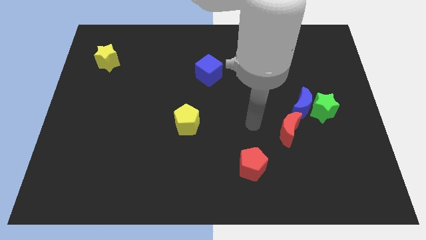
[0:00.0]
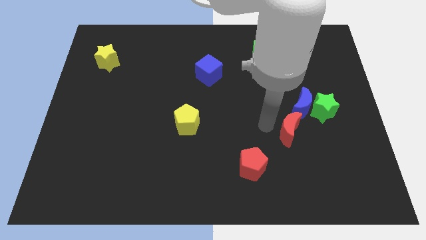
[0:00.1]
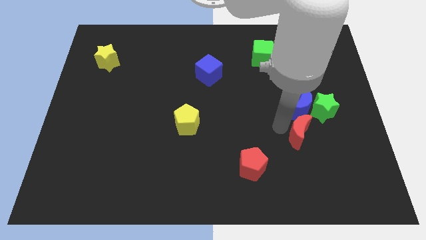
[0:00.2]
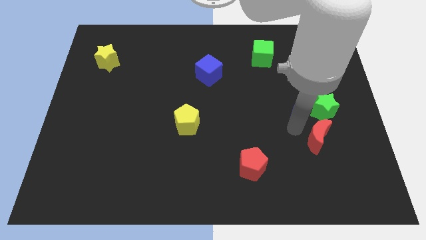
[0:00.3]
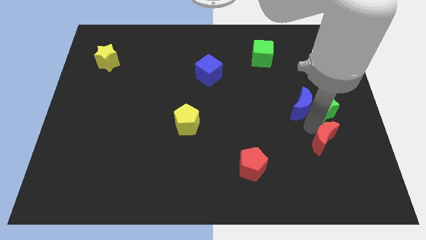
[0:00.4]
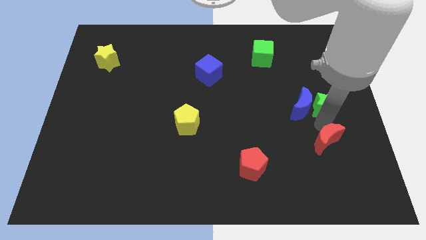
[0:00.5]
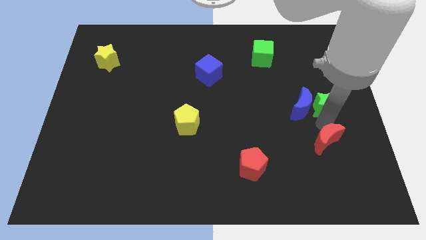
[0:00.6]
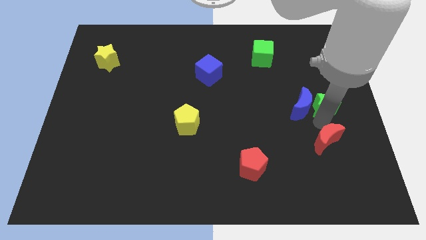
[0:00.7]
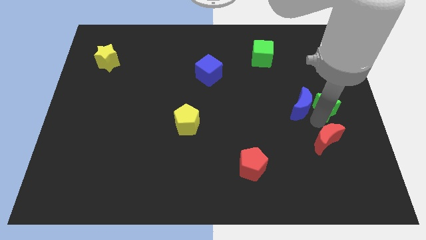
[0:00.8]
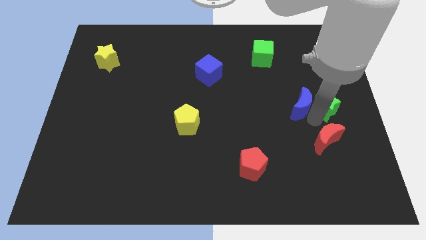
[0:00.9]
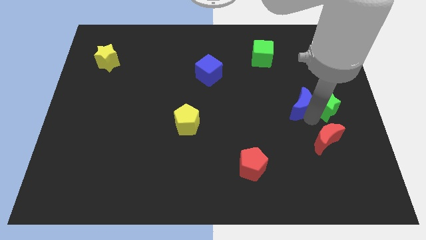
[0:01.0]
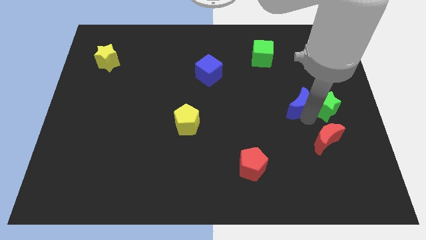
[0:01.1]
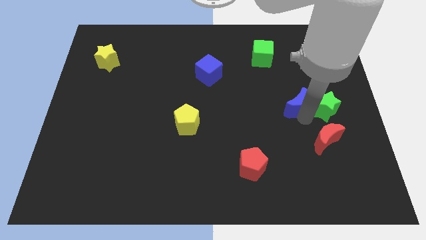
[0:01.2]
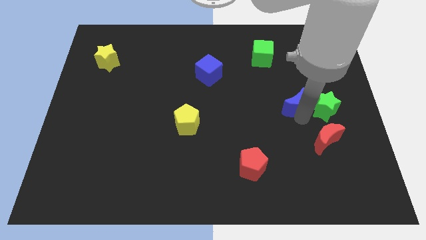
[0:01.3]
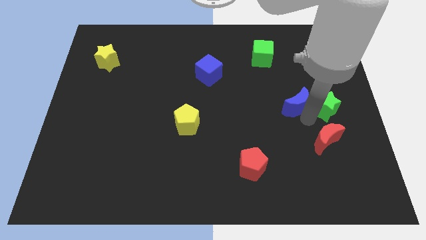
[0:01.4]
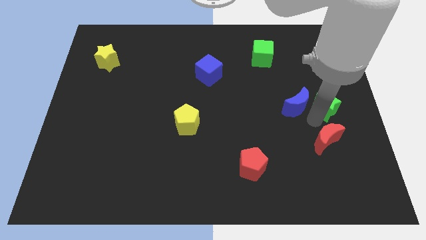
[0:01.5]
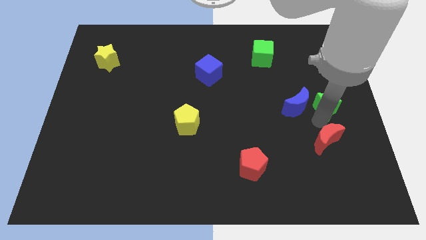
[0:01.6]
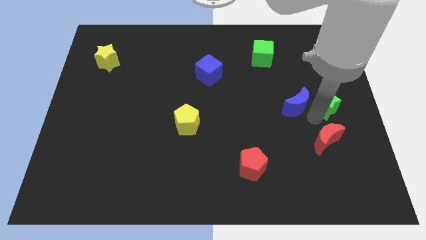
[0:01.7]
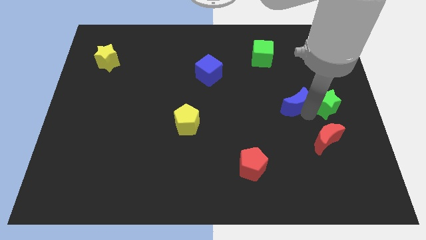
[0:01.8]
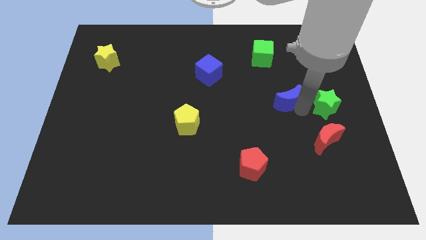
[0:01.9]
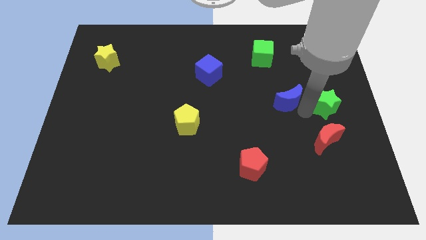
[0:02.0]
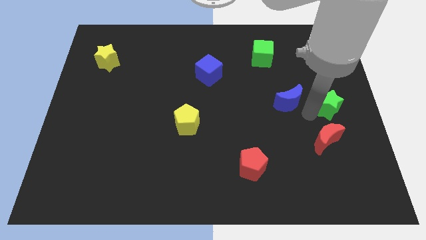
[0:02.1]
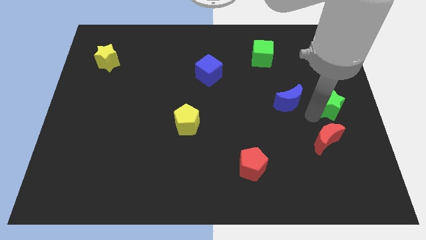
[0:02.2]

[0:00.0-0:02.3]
pull the blue moon apart from the green star and red moon

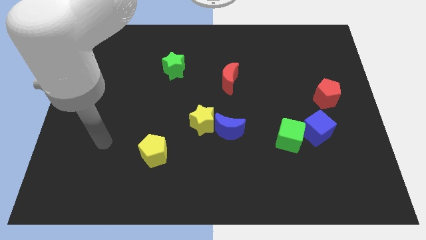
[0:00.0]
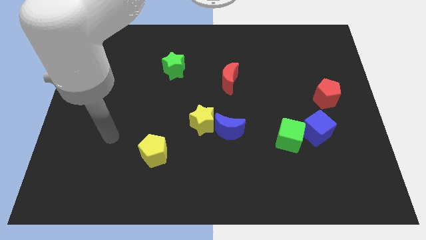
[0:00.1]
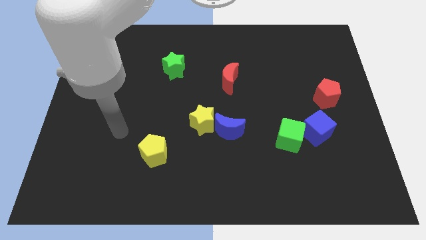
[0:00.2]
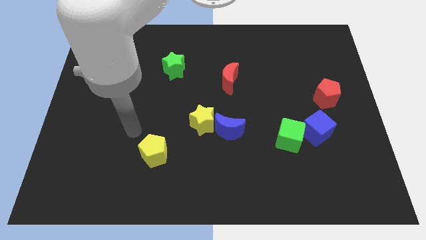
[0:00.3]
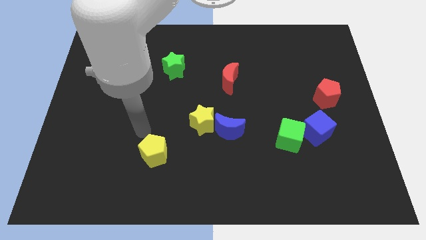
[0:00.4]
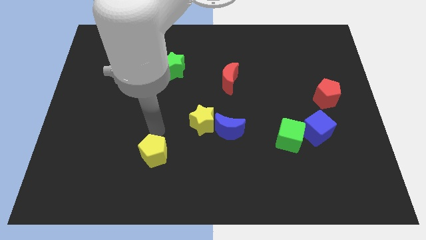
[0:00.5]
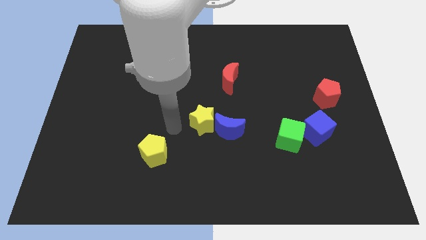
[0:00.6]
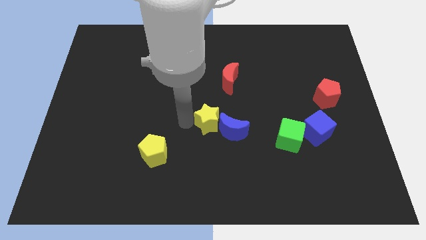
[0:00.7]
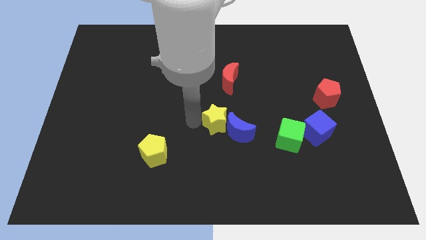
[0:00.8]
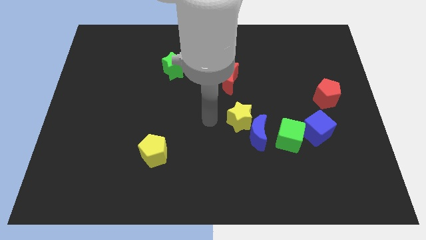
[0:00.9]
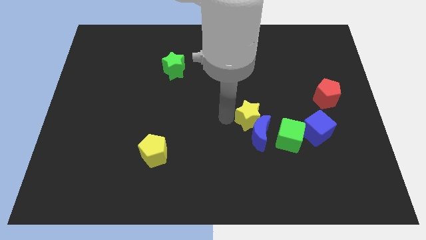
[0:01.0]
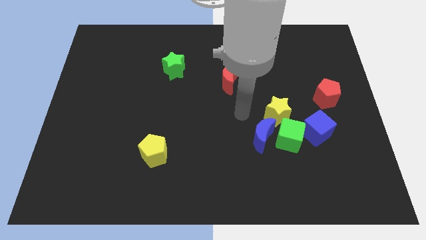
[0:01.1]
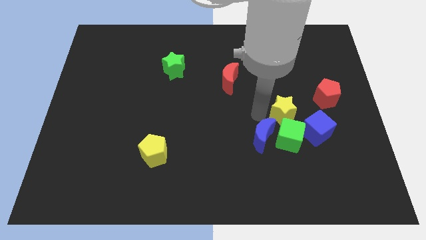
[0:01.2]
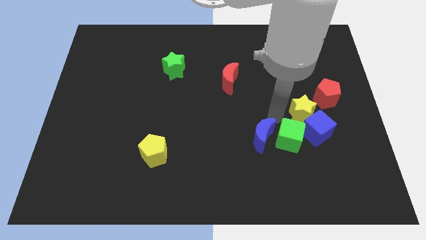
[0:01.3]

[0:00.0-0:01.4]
move the blue moon away from the yellow star

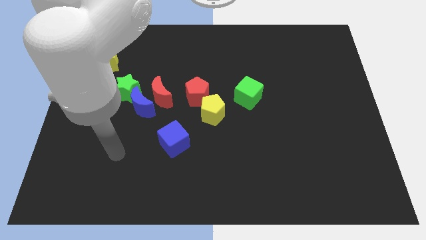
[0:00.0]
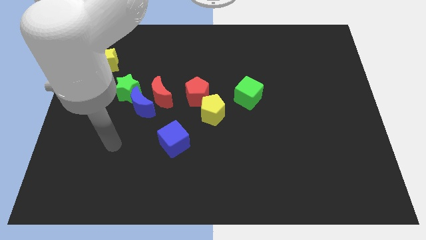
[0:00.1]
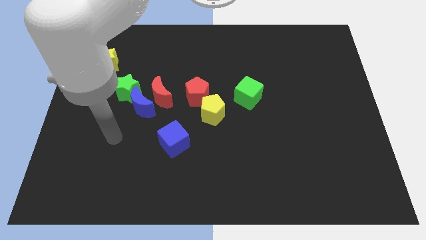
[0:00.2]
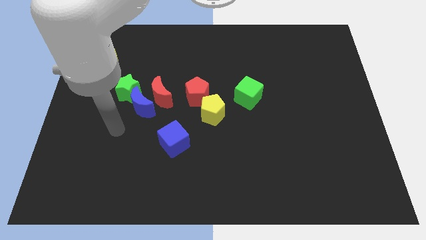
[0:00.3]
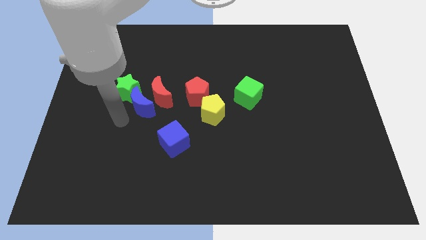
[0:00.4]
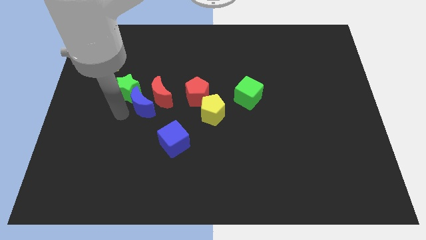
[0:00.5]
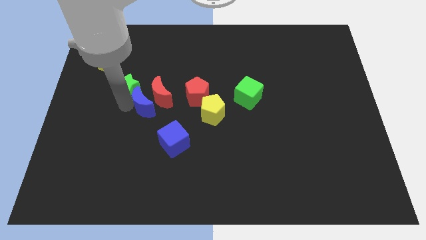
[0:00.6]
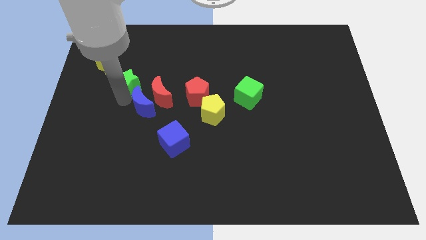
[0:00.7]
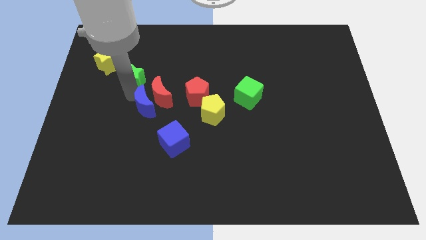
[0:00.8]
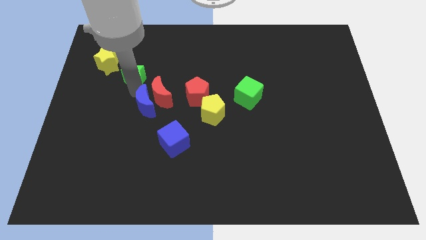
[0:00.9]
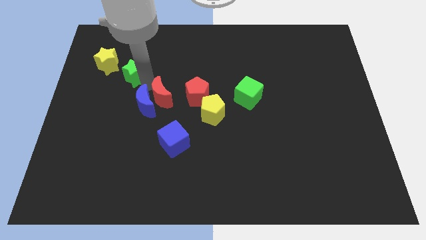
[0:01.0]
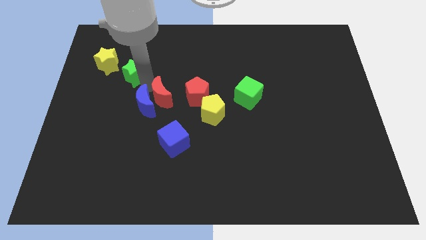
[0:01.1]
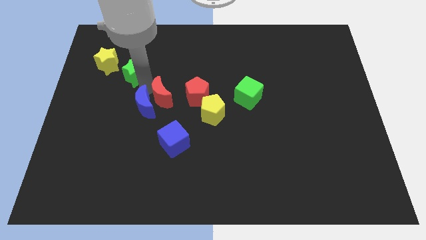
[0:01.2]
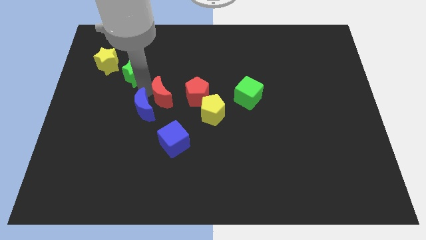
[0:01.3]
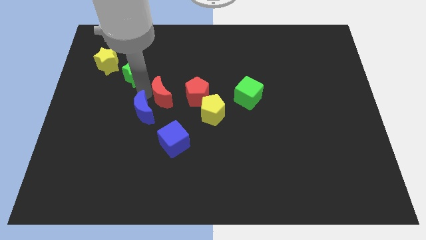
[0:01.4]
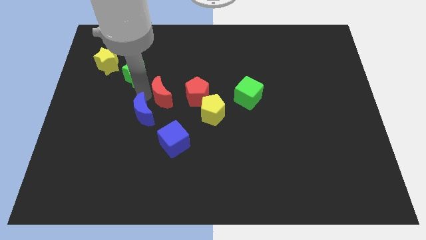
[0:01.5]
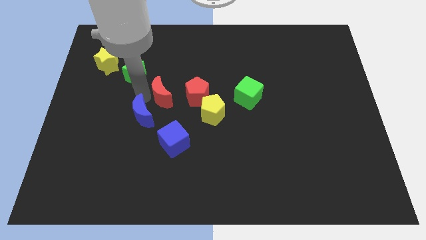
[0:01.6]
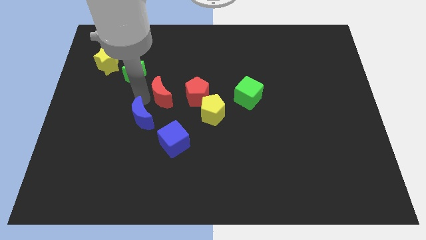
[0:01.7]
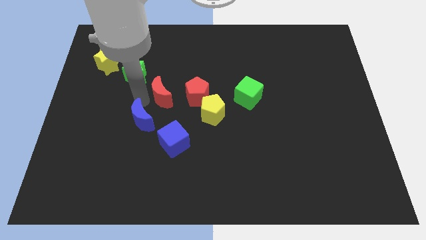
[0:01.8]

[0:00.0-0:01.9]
pull the blue moon apart from the red moon and green star

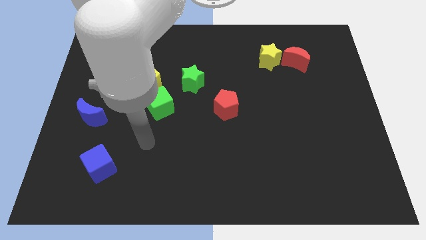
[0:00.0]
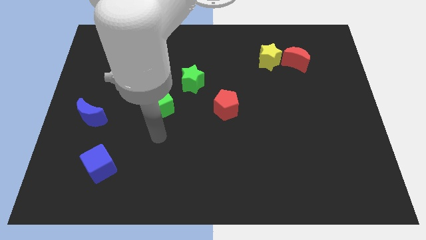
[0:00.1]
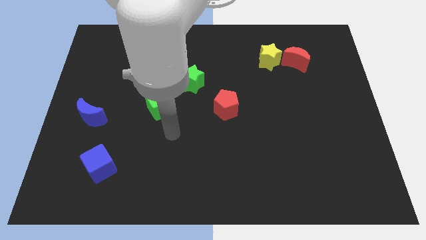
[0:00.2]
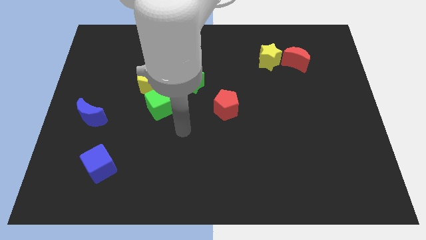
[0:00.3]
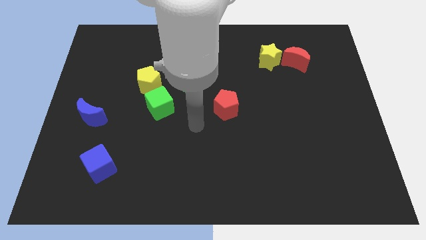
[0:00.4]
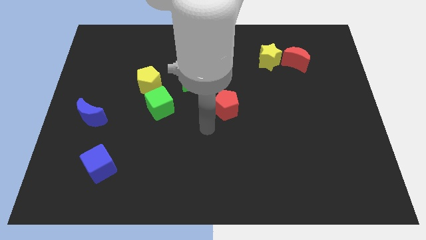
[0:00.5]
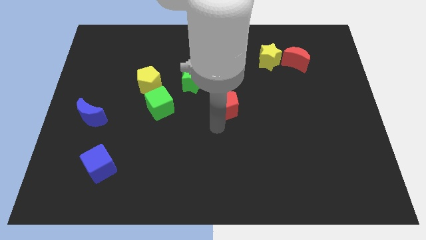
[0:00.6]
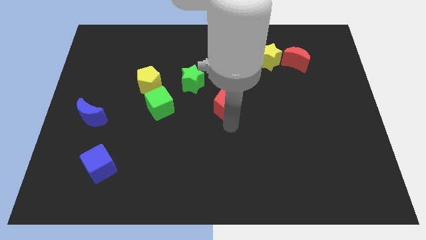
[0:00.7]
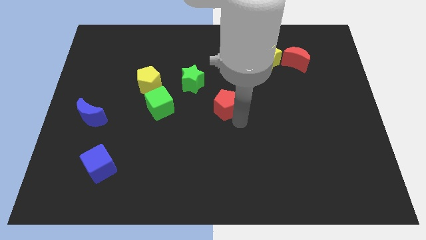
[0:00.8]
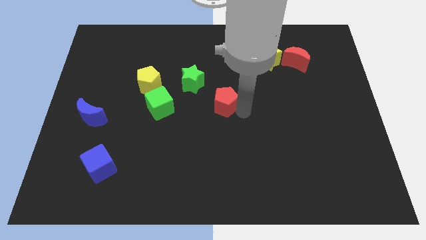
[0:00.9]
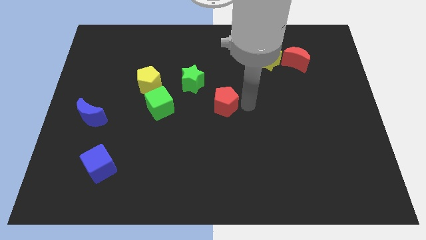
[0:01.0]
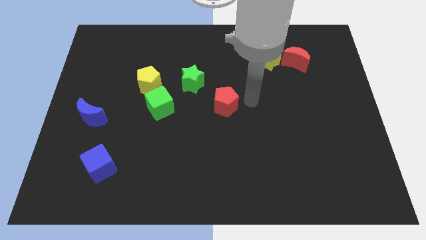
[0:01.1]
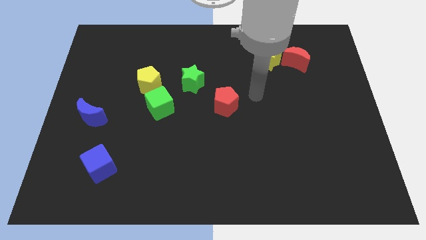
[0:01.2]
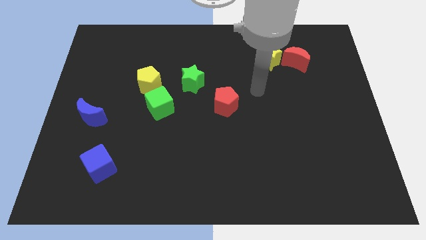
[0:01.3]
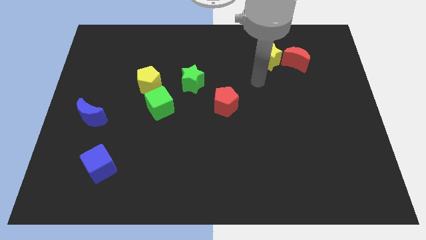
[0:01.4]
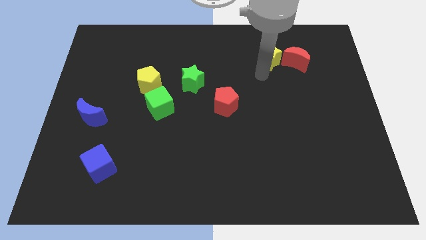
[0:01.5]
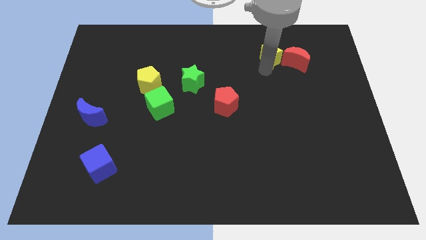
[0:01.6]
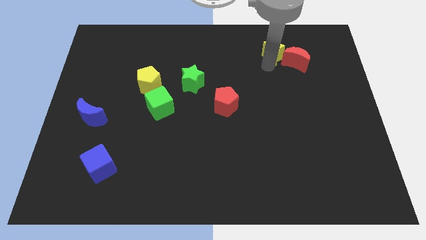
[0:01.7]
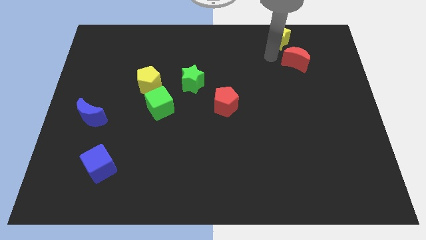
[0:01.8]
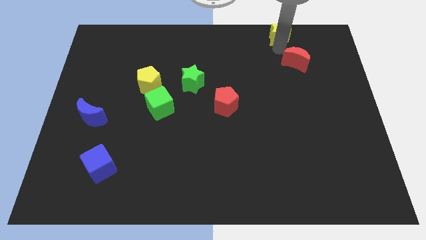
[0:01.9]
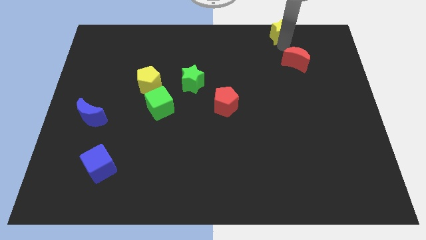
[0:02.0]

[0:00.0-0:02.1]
move the red moon away from the yellow star

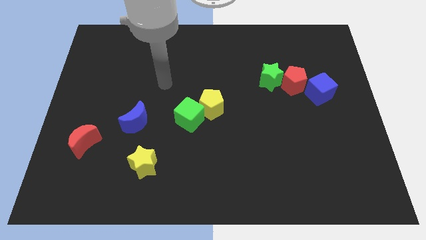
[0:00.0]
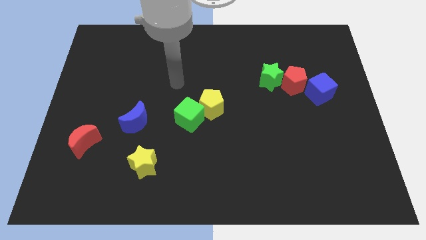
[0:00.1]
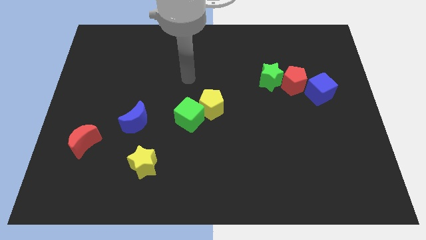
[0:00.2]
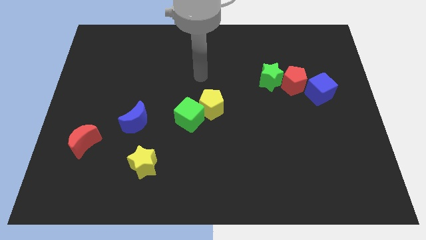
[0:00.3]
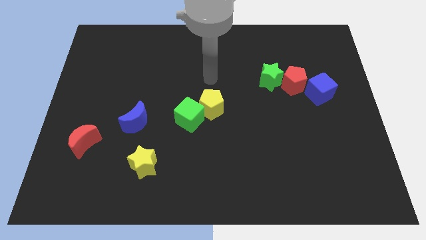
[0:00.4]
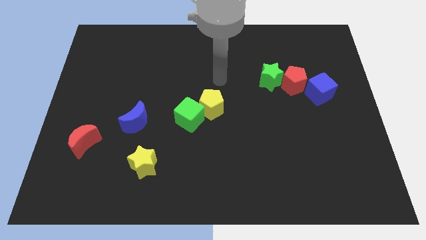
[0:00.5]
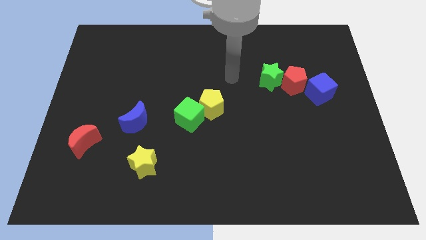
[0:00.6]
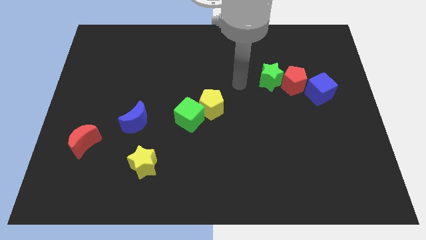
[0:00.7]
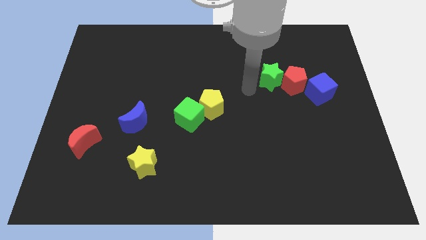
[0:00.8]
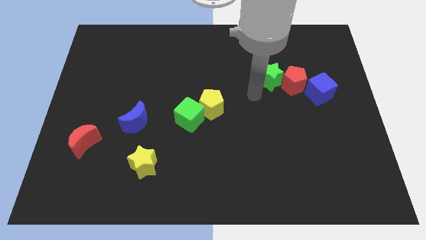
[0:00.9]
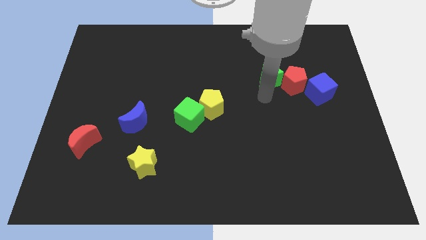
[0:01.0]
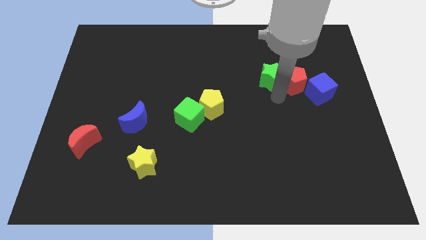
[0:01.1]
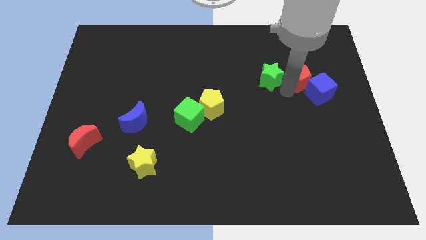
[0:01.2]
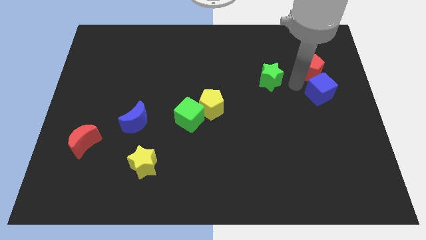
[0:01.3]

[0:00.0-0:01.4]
separate the green star from the red pentagon

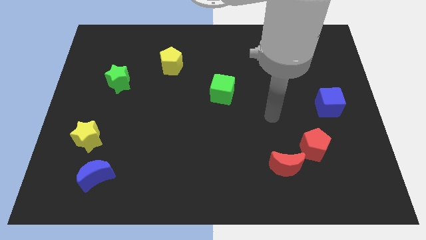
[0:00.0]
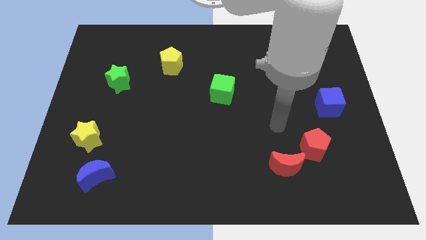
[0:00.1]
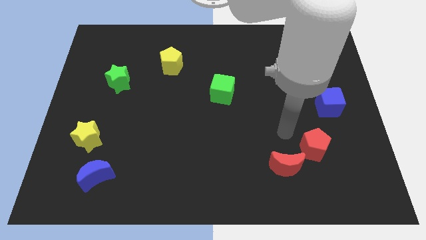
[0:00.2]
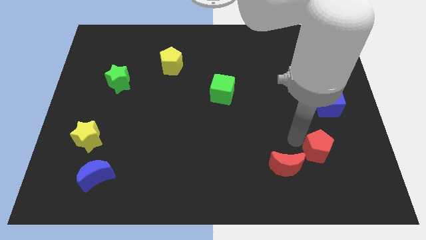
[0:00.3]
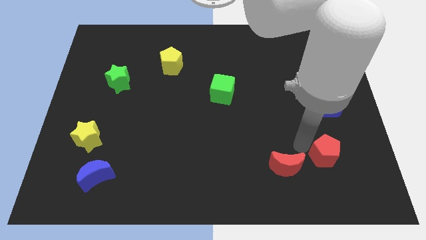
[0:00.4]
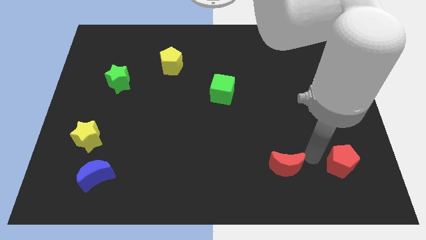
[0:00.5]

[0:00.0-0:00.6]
separate the red moon from the red pentagon
